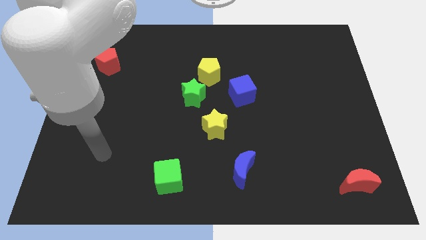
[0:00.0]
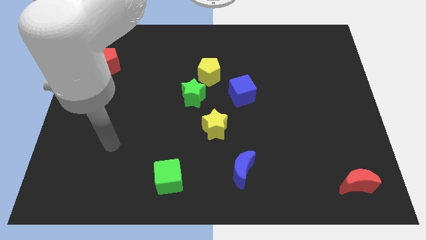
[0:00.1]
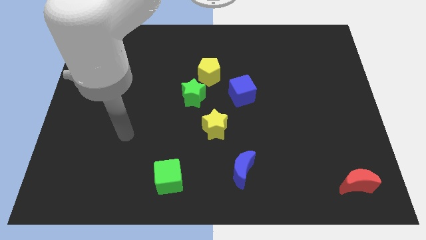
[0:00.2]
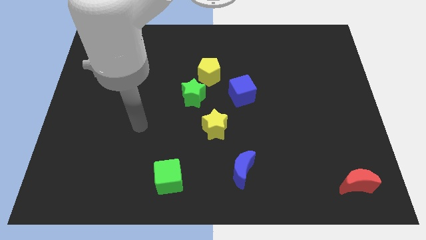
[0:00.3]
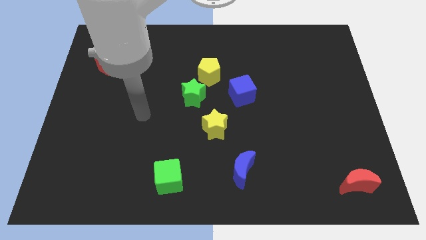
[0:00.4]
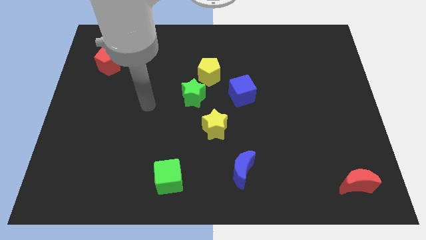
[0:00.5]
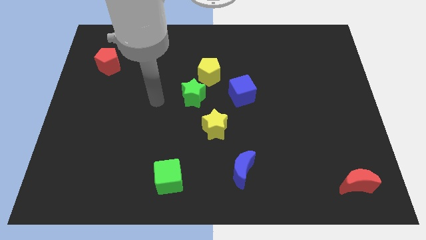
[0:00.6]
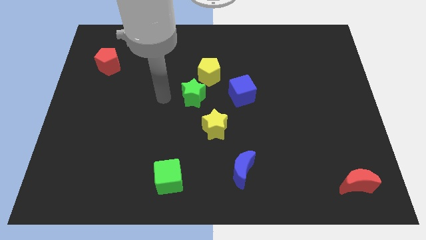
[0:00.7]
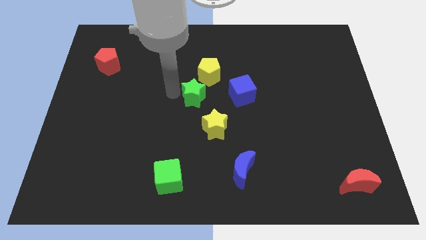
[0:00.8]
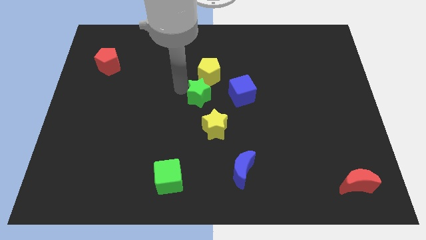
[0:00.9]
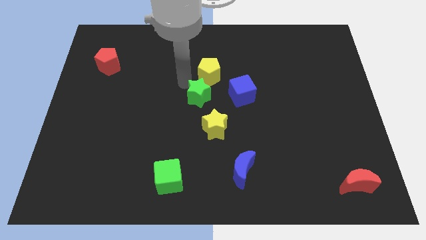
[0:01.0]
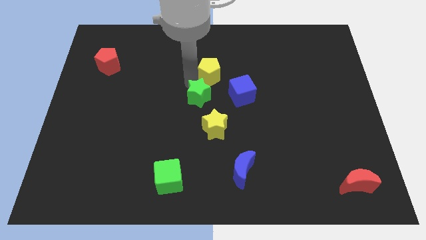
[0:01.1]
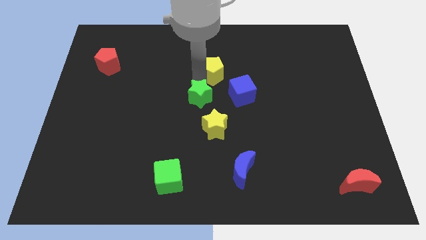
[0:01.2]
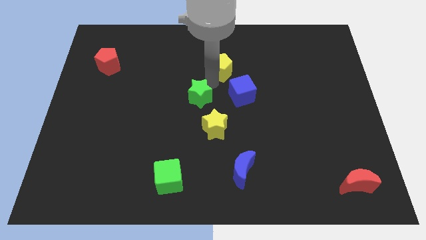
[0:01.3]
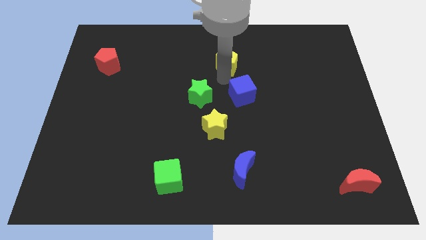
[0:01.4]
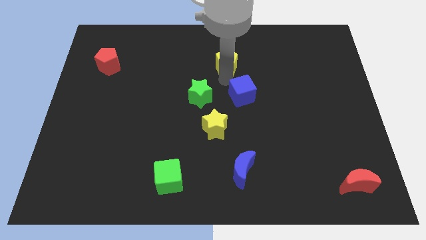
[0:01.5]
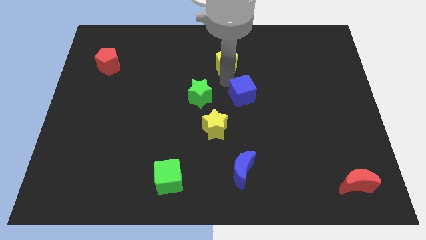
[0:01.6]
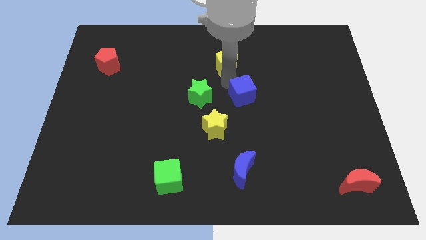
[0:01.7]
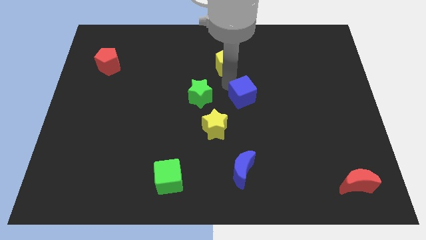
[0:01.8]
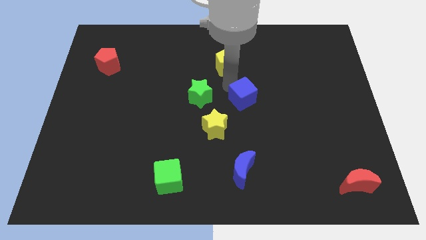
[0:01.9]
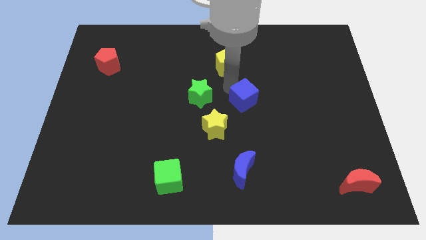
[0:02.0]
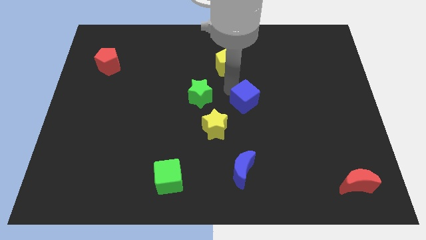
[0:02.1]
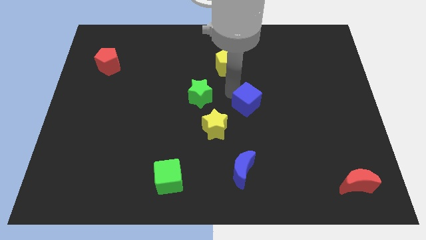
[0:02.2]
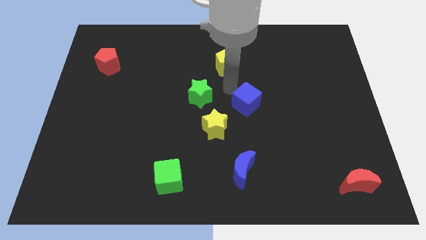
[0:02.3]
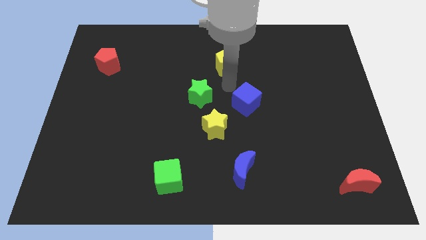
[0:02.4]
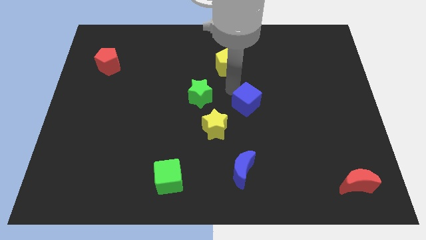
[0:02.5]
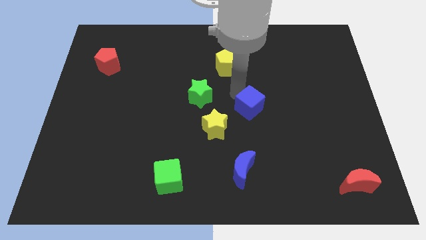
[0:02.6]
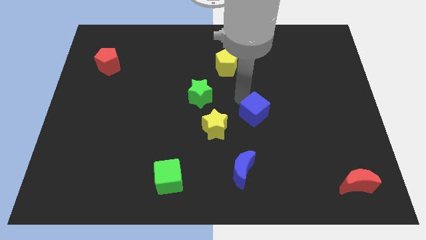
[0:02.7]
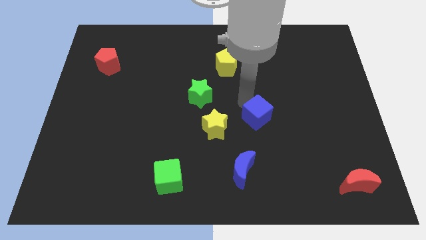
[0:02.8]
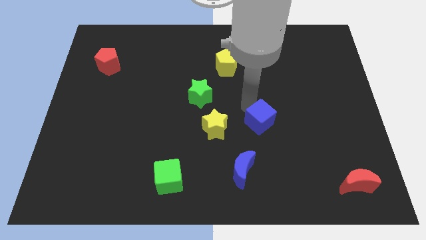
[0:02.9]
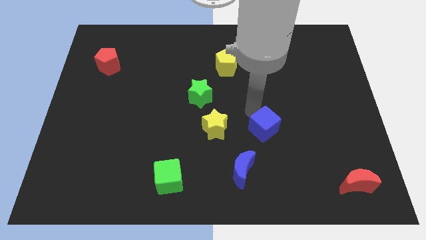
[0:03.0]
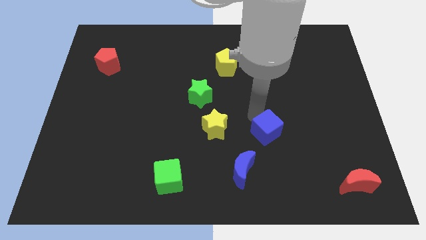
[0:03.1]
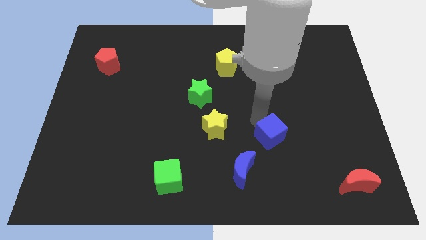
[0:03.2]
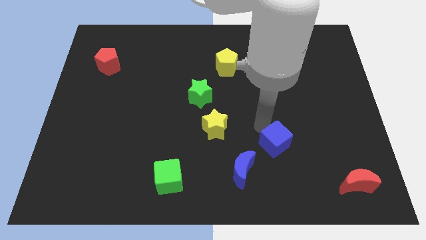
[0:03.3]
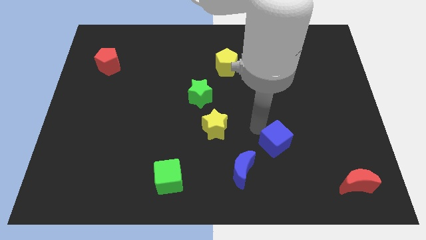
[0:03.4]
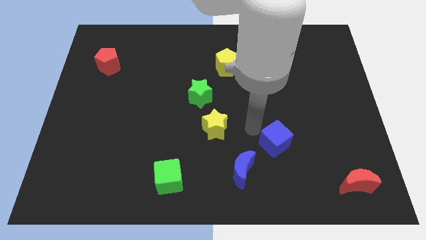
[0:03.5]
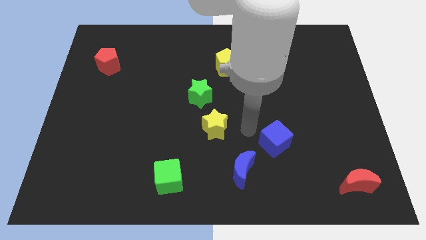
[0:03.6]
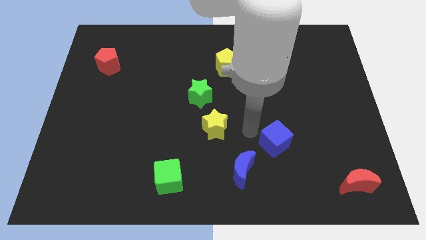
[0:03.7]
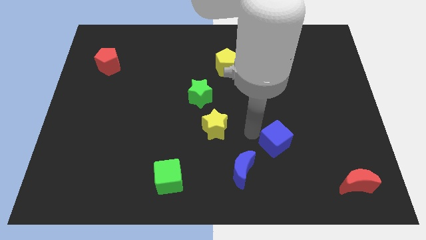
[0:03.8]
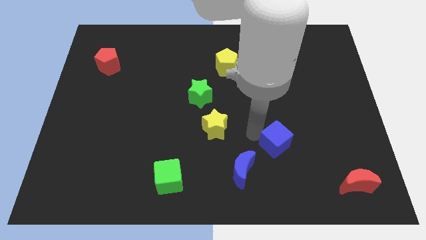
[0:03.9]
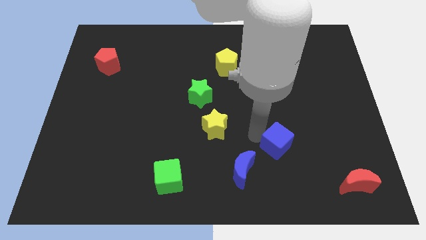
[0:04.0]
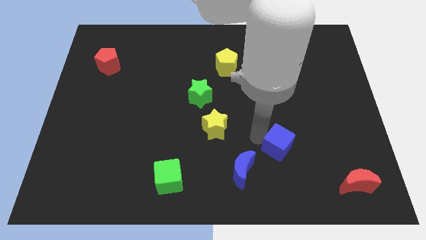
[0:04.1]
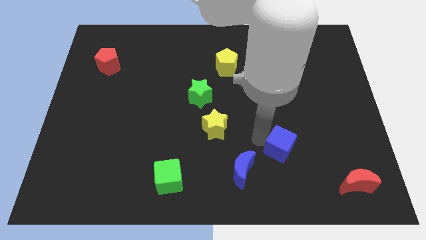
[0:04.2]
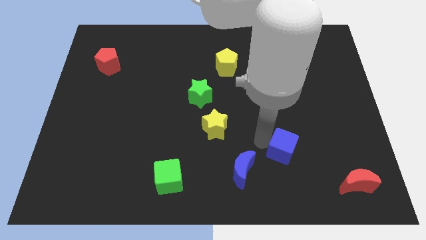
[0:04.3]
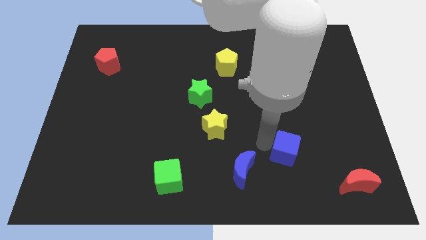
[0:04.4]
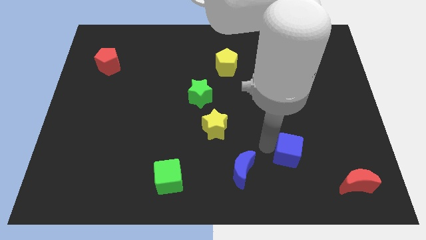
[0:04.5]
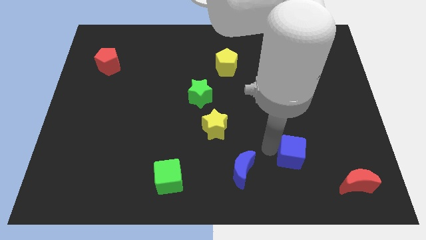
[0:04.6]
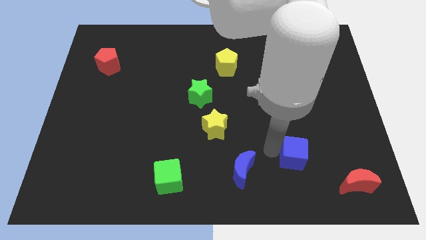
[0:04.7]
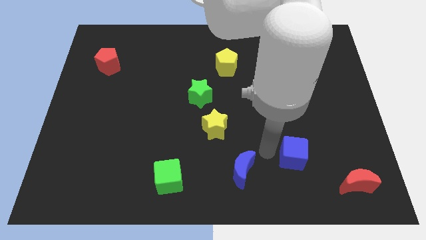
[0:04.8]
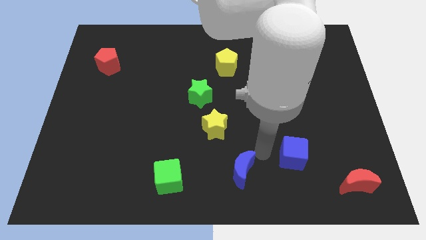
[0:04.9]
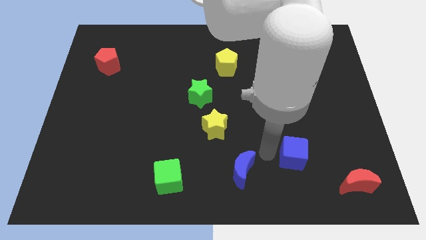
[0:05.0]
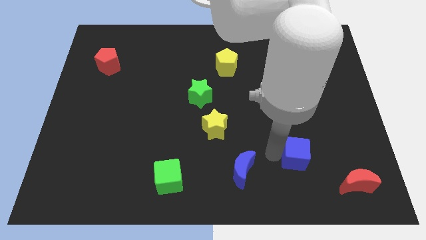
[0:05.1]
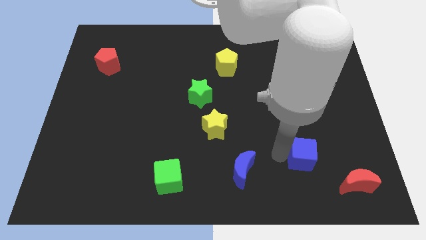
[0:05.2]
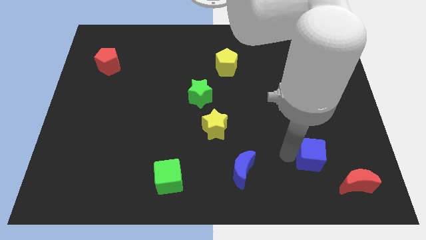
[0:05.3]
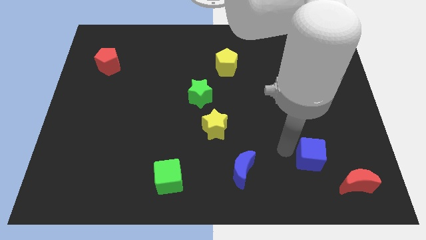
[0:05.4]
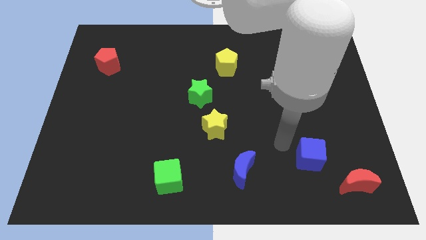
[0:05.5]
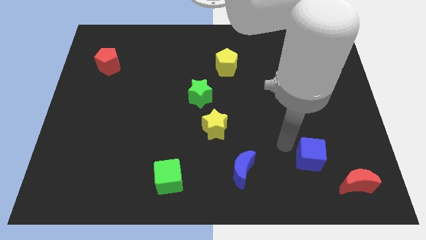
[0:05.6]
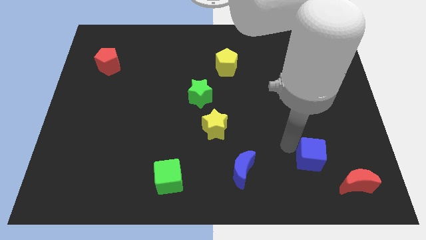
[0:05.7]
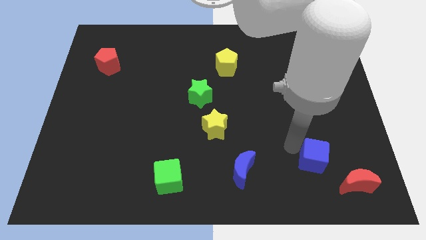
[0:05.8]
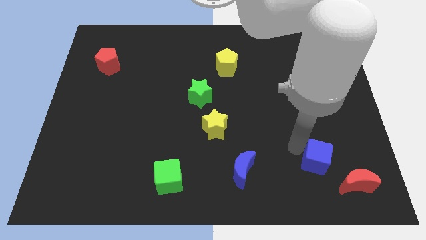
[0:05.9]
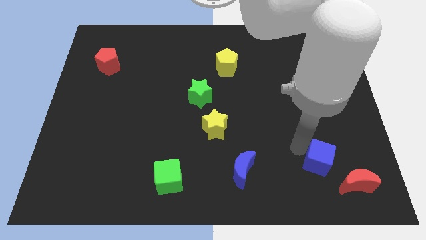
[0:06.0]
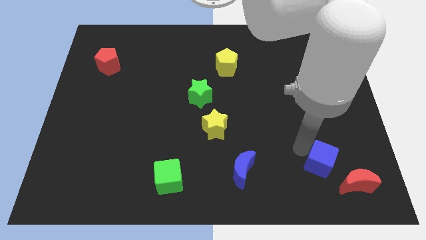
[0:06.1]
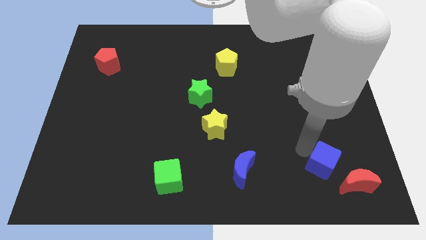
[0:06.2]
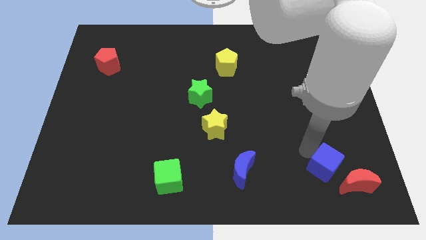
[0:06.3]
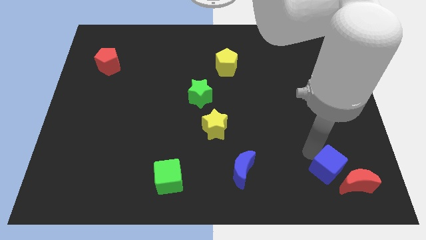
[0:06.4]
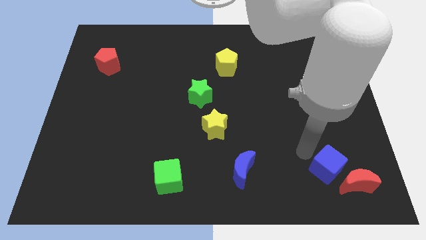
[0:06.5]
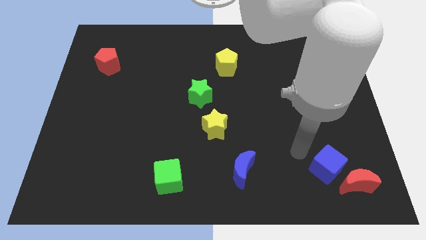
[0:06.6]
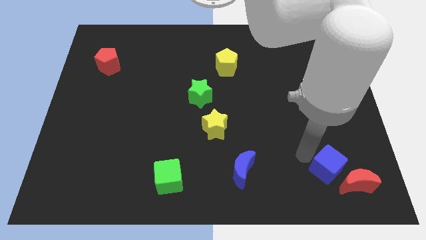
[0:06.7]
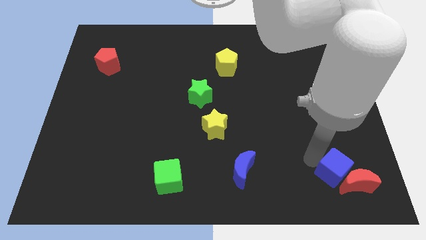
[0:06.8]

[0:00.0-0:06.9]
slide the blue cube next to the red moon
